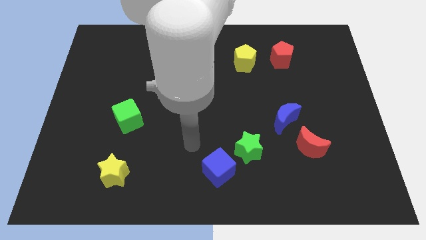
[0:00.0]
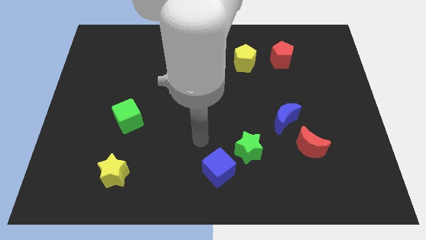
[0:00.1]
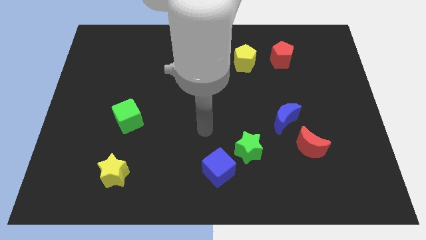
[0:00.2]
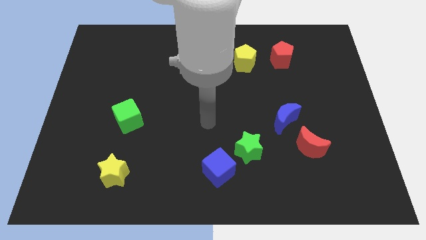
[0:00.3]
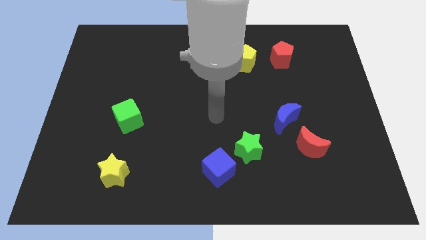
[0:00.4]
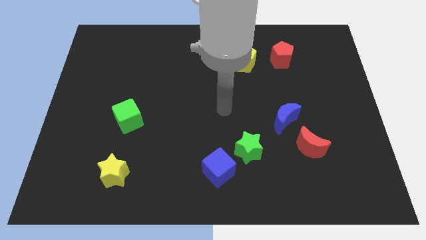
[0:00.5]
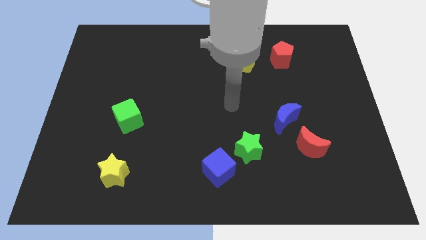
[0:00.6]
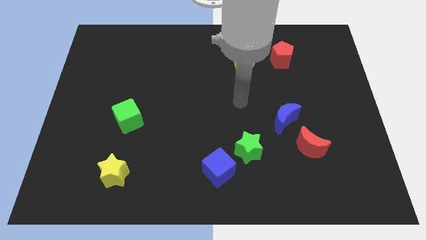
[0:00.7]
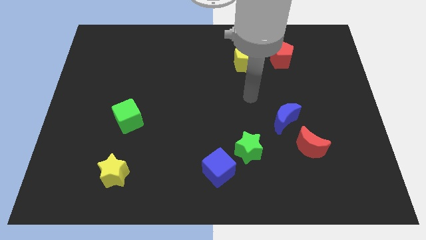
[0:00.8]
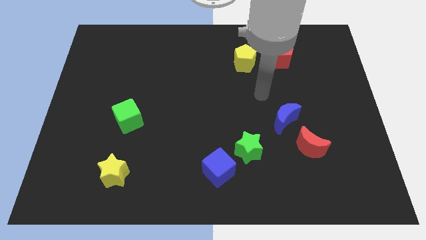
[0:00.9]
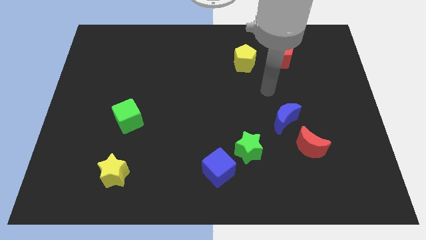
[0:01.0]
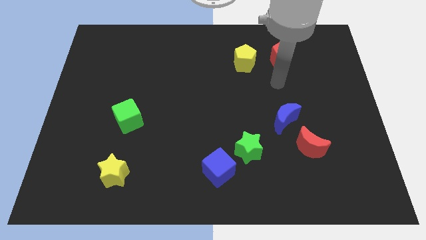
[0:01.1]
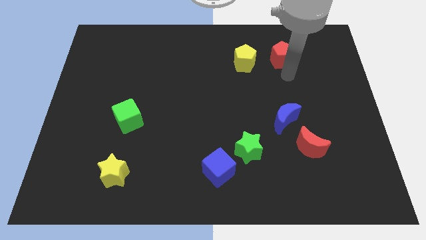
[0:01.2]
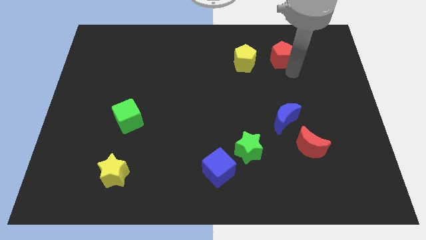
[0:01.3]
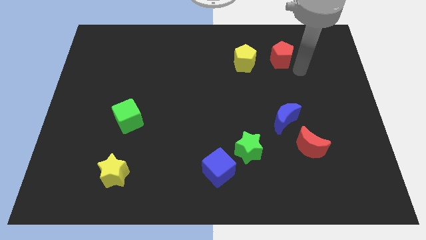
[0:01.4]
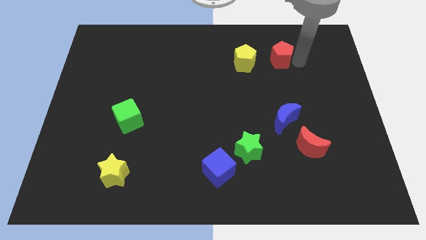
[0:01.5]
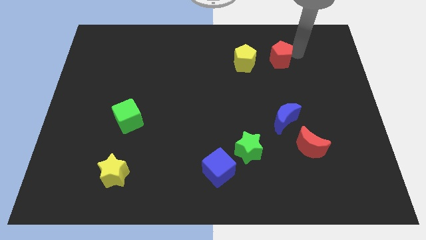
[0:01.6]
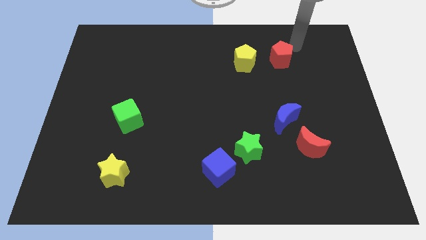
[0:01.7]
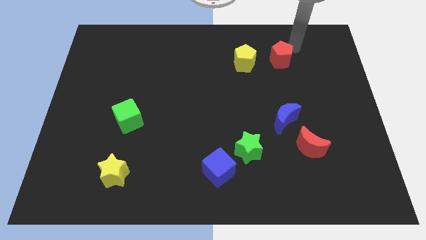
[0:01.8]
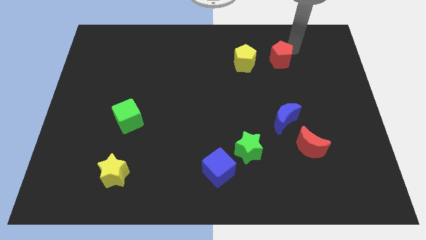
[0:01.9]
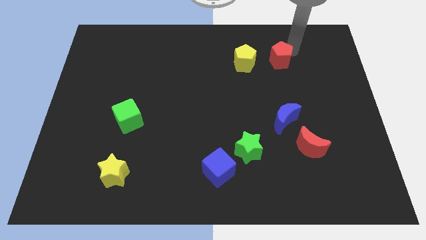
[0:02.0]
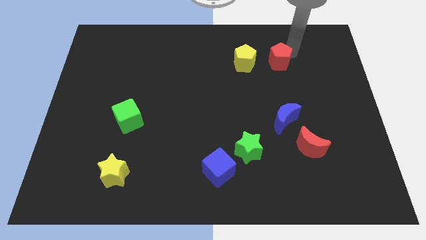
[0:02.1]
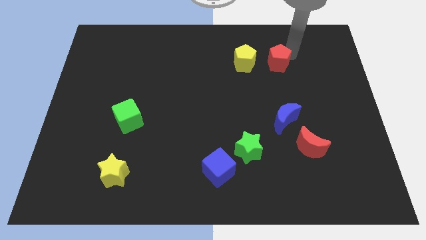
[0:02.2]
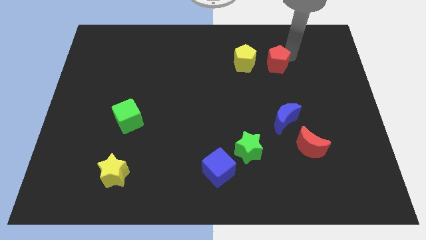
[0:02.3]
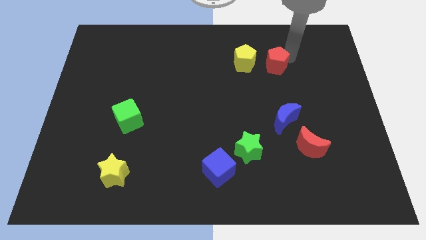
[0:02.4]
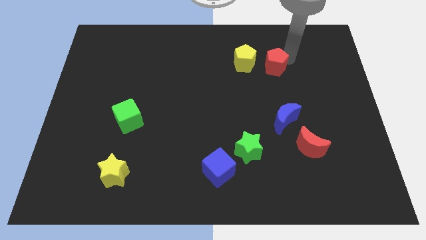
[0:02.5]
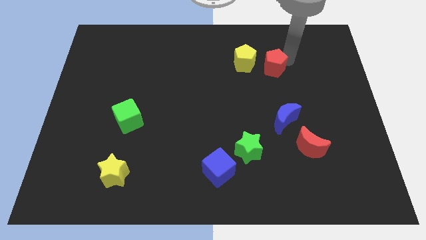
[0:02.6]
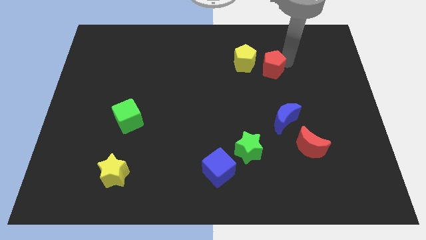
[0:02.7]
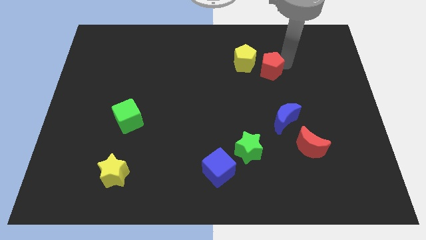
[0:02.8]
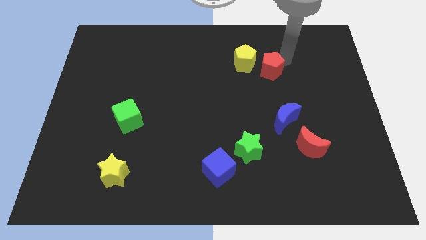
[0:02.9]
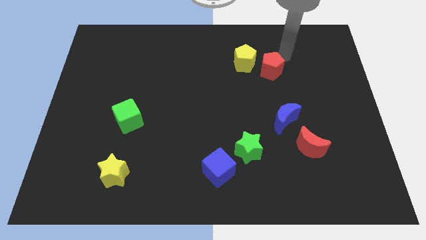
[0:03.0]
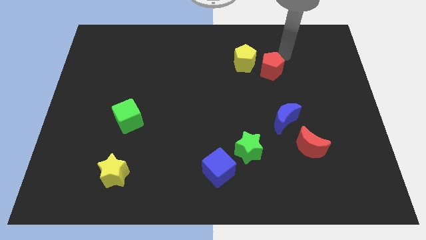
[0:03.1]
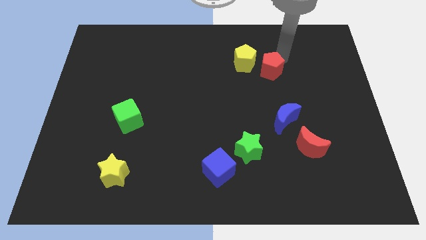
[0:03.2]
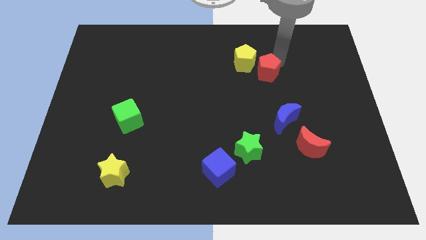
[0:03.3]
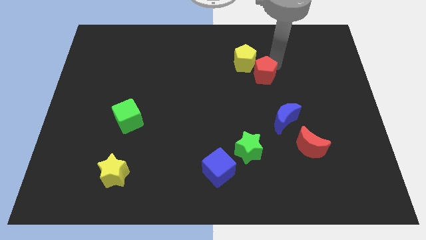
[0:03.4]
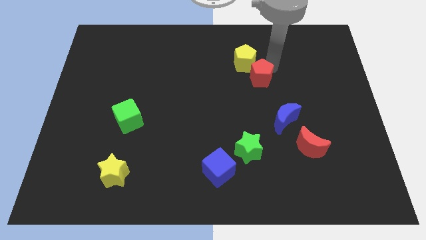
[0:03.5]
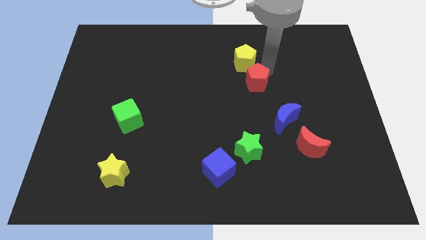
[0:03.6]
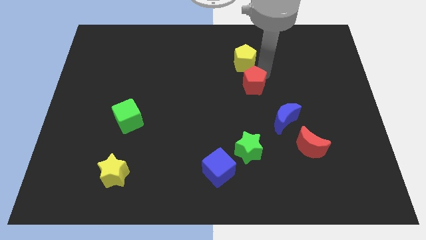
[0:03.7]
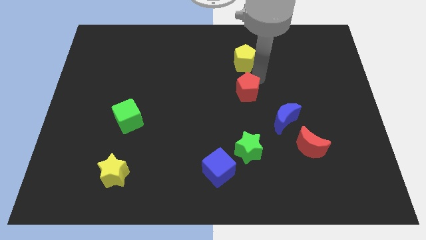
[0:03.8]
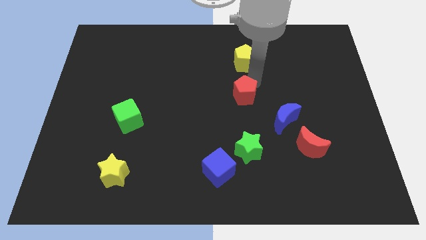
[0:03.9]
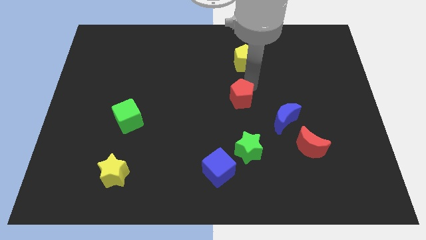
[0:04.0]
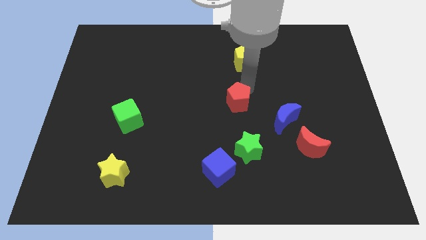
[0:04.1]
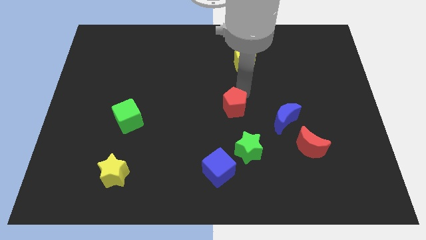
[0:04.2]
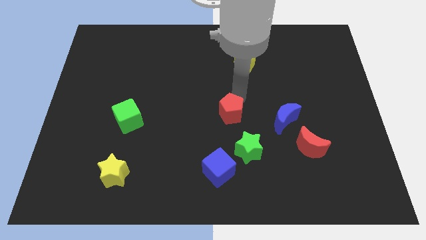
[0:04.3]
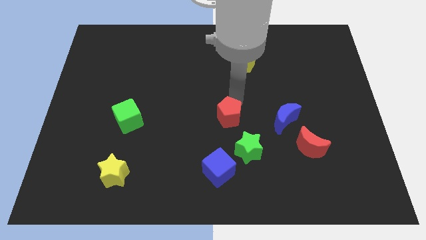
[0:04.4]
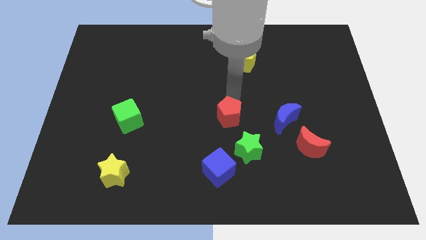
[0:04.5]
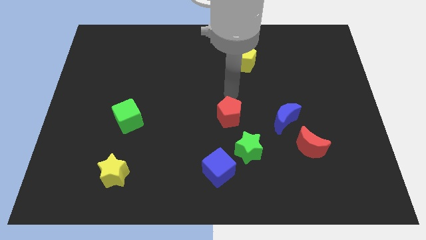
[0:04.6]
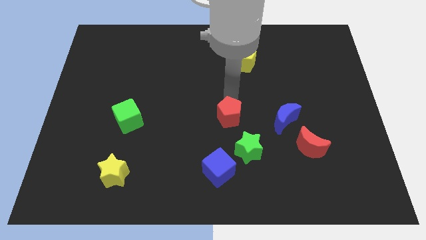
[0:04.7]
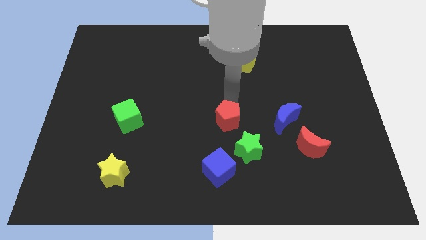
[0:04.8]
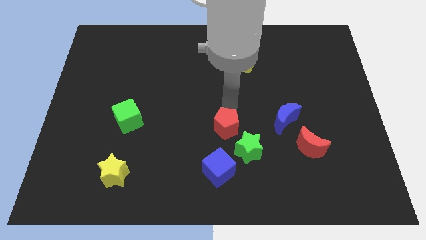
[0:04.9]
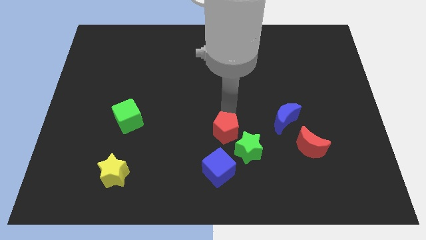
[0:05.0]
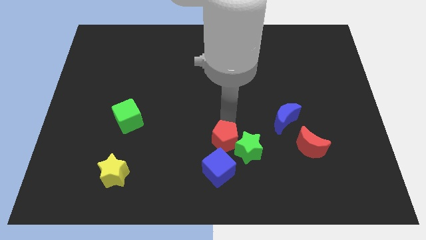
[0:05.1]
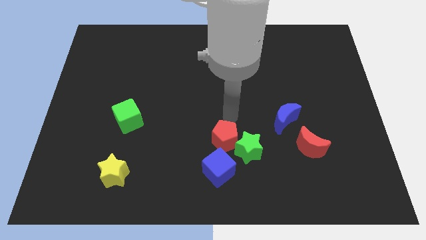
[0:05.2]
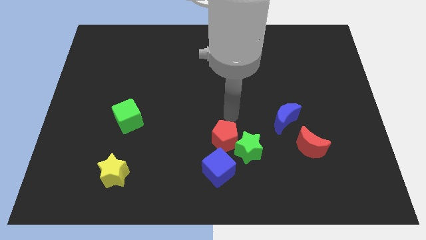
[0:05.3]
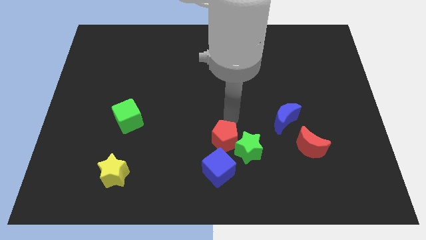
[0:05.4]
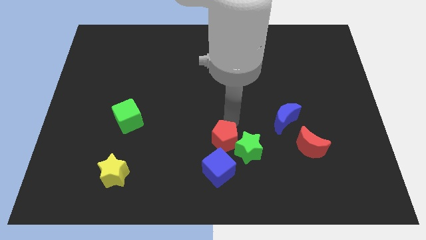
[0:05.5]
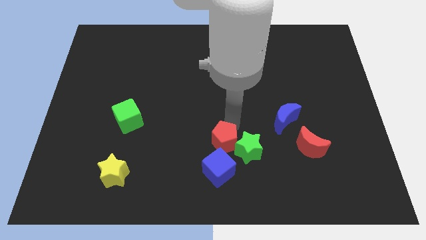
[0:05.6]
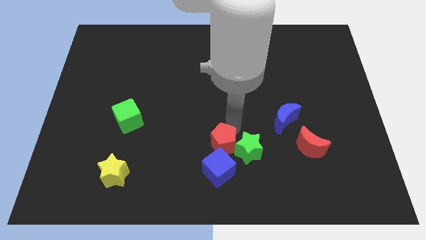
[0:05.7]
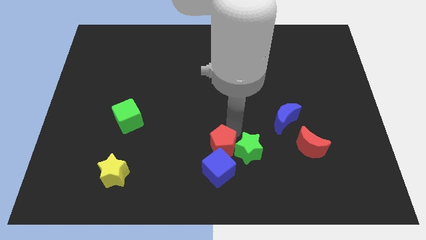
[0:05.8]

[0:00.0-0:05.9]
put the red pentagon to the blue cube

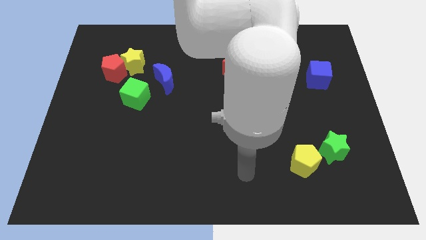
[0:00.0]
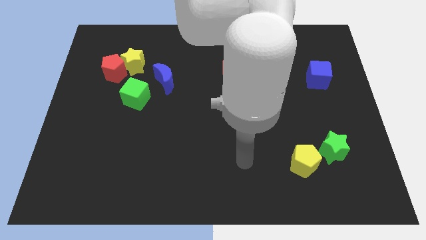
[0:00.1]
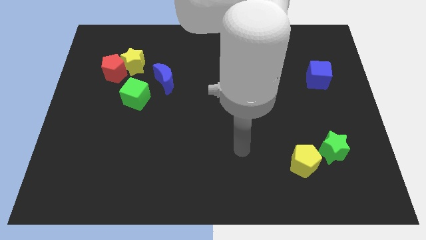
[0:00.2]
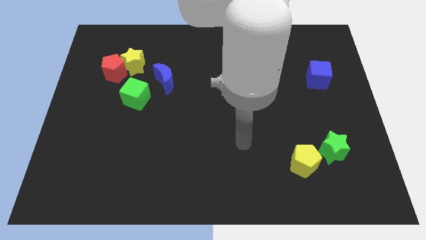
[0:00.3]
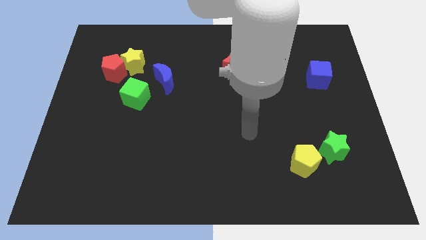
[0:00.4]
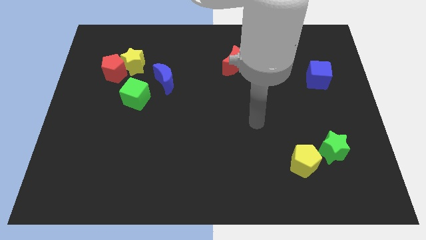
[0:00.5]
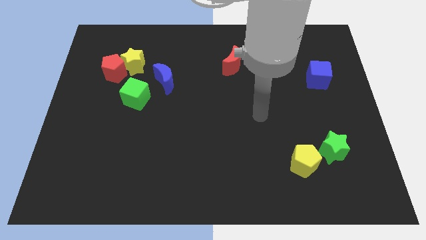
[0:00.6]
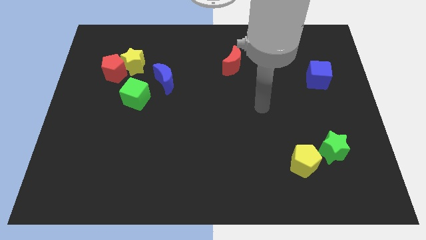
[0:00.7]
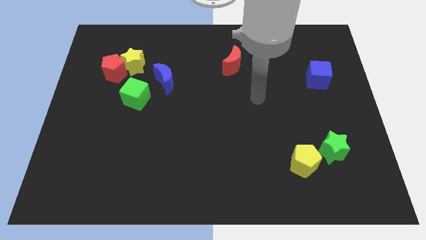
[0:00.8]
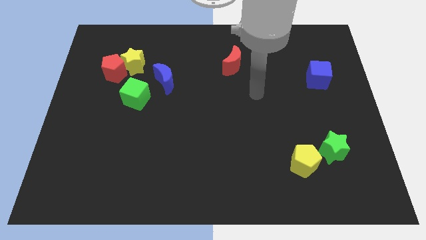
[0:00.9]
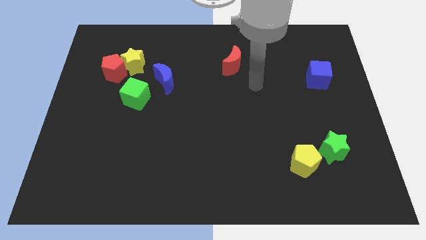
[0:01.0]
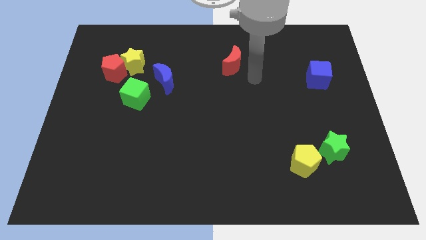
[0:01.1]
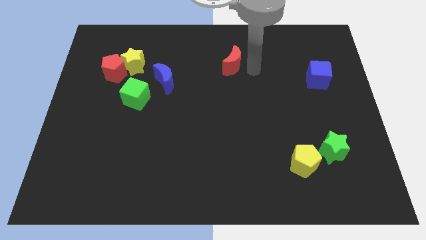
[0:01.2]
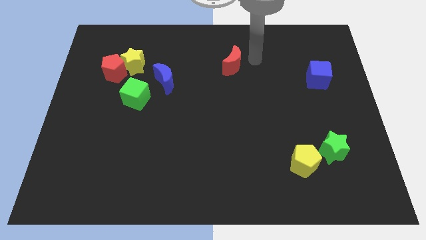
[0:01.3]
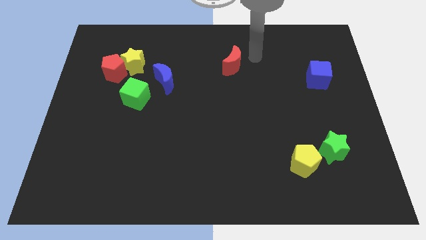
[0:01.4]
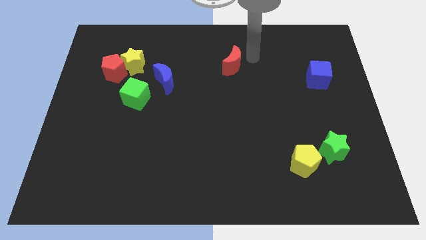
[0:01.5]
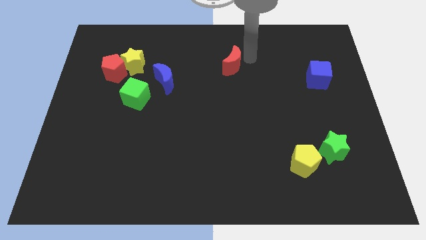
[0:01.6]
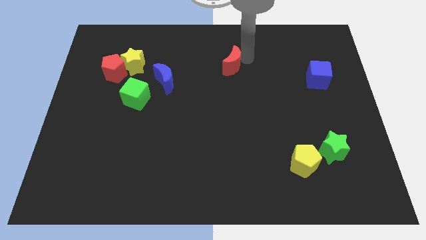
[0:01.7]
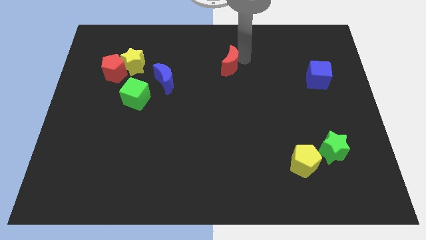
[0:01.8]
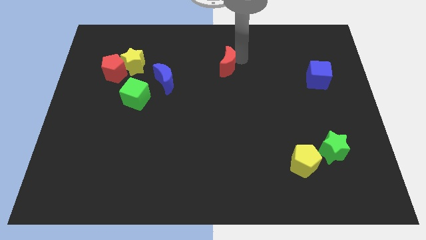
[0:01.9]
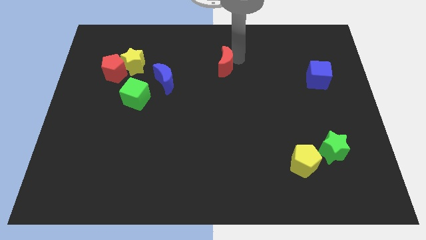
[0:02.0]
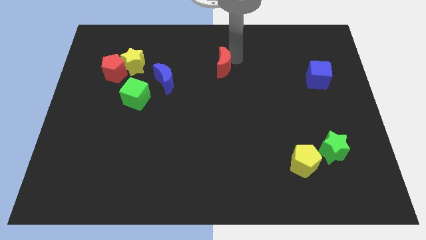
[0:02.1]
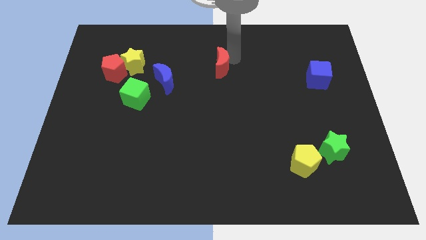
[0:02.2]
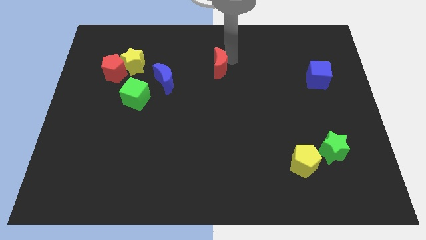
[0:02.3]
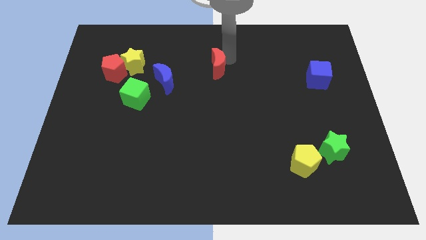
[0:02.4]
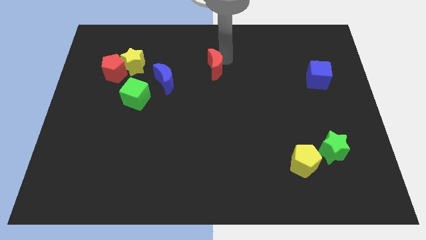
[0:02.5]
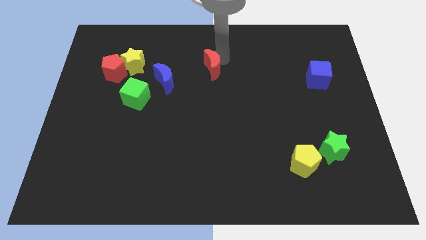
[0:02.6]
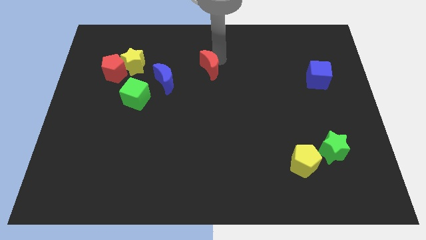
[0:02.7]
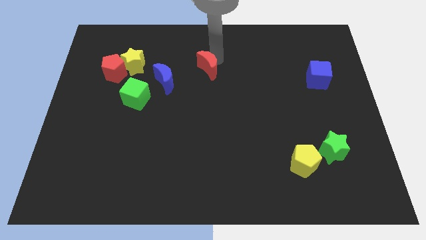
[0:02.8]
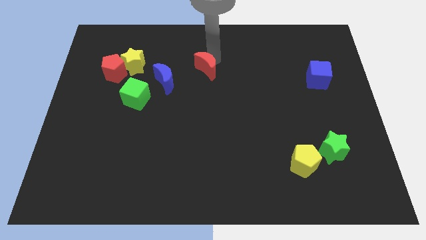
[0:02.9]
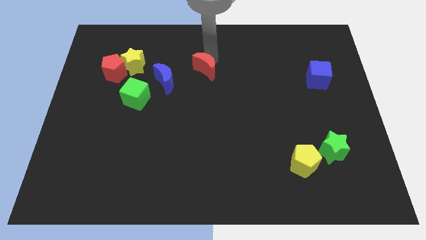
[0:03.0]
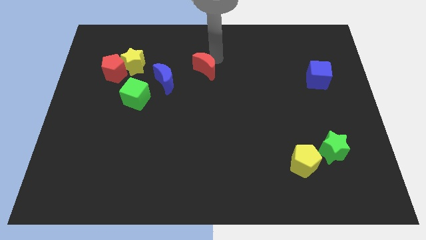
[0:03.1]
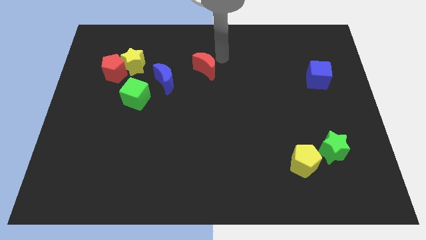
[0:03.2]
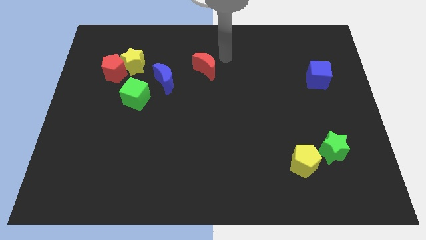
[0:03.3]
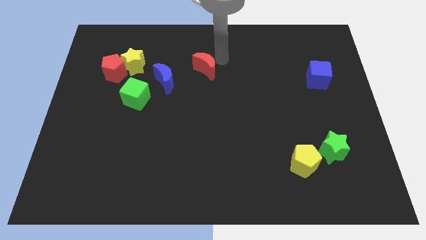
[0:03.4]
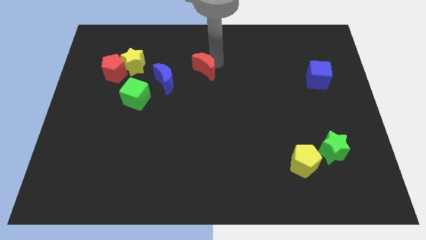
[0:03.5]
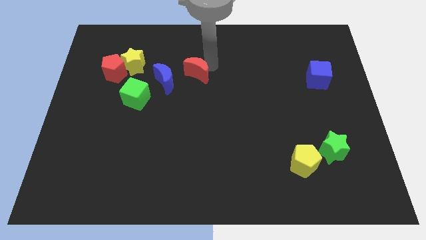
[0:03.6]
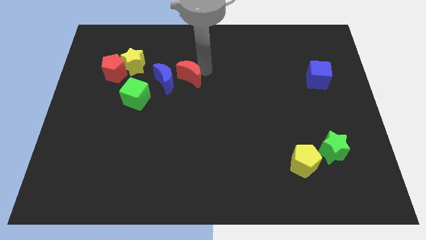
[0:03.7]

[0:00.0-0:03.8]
move the red moon to the blue moon
